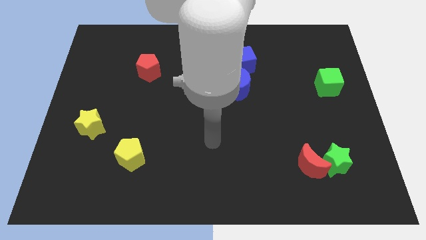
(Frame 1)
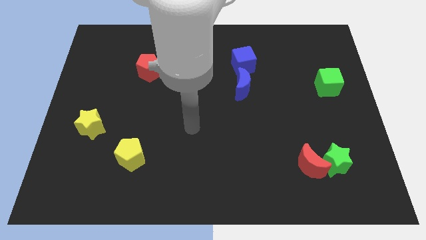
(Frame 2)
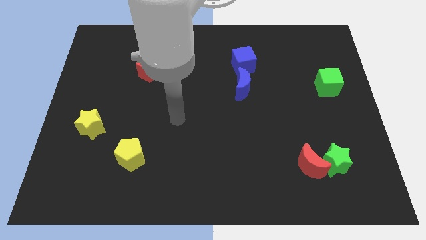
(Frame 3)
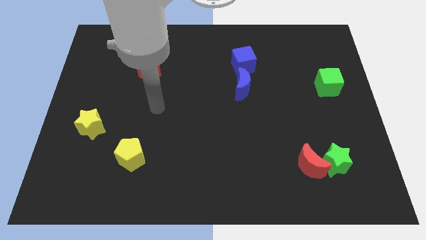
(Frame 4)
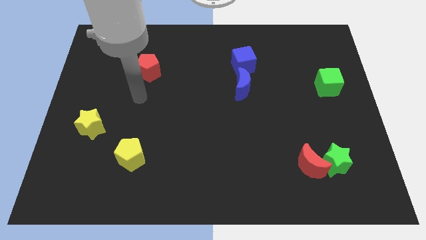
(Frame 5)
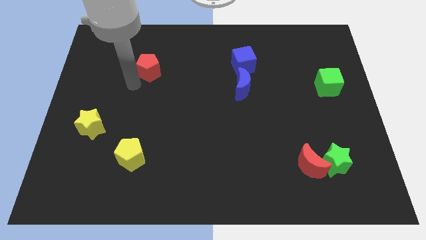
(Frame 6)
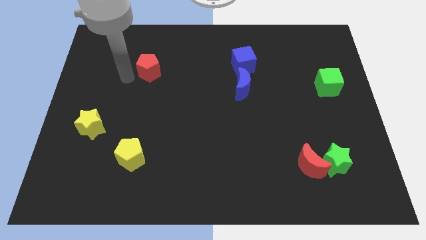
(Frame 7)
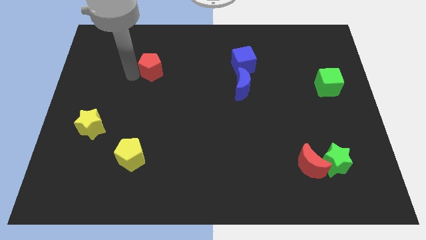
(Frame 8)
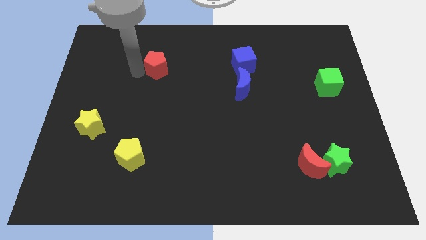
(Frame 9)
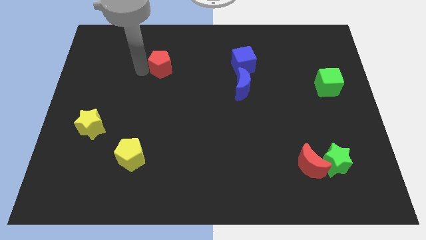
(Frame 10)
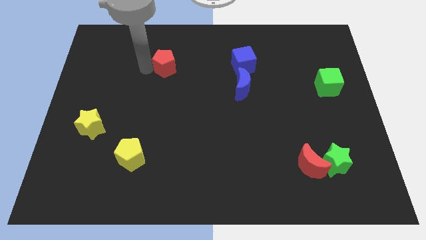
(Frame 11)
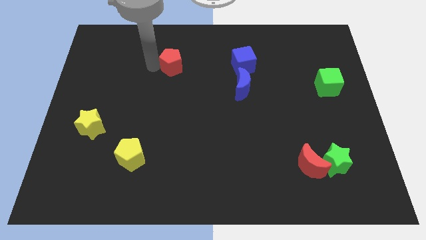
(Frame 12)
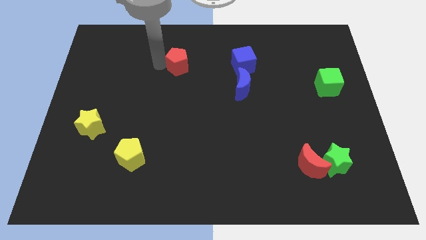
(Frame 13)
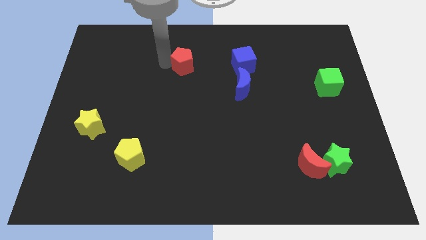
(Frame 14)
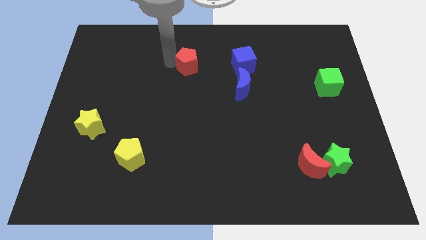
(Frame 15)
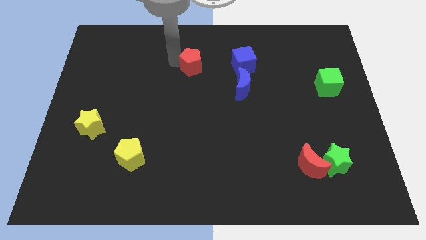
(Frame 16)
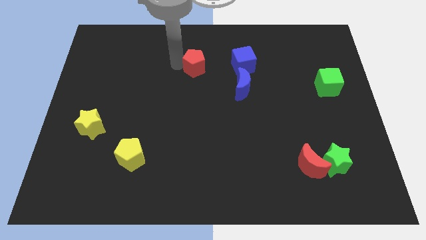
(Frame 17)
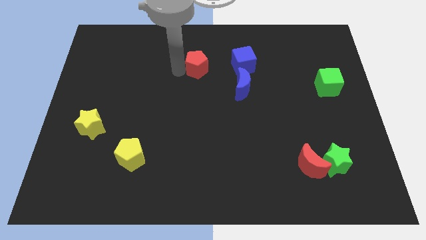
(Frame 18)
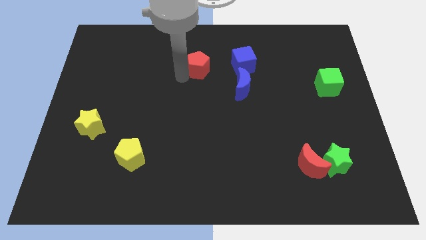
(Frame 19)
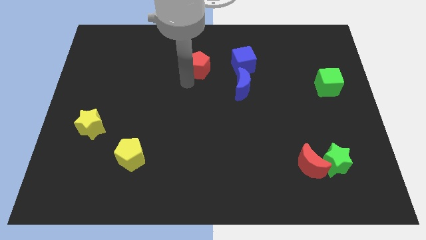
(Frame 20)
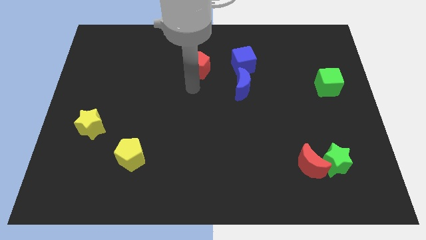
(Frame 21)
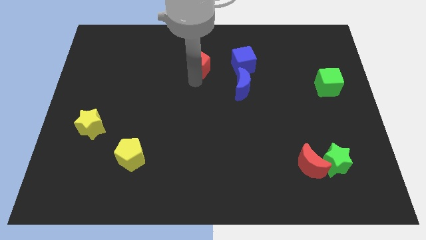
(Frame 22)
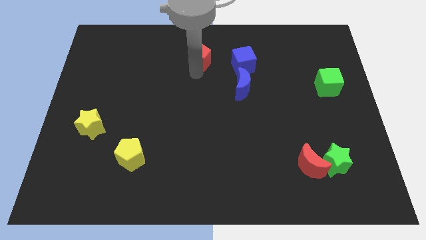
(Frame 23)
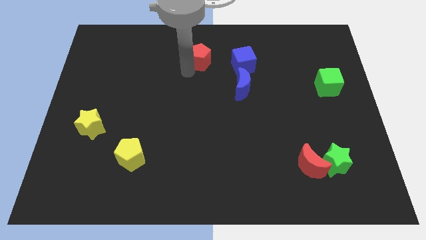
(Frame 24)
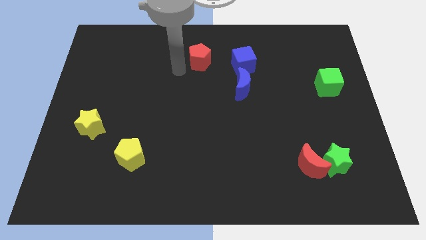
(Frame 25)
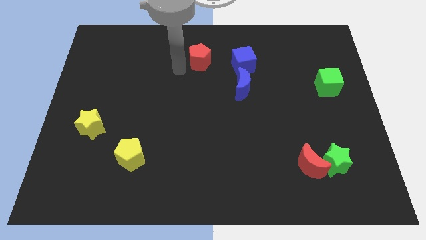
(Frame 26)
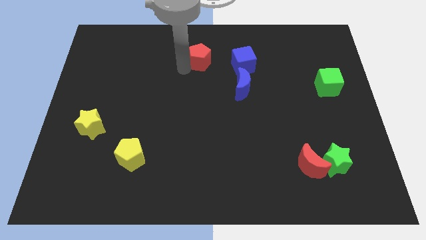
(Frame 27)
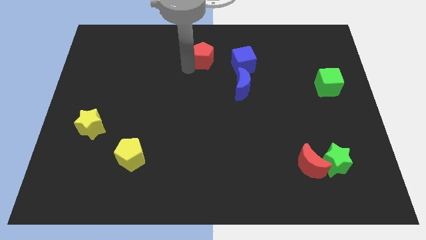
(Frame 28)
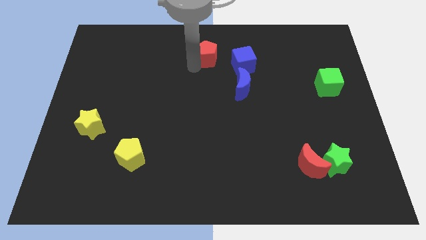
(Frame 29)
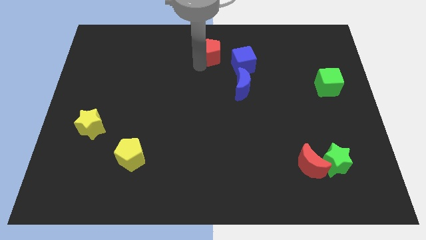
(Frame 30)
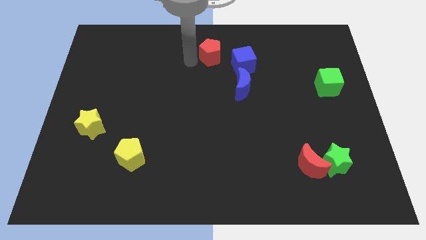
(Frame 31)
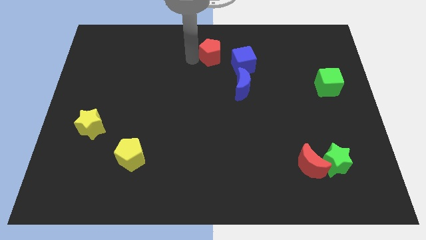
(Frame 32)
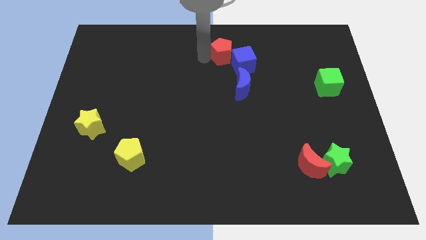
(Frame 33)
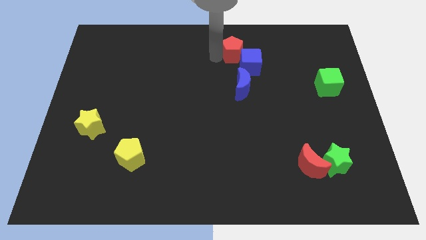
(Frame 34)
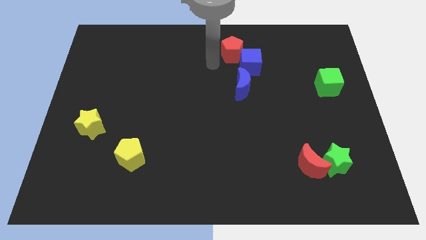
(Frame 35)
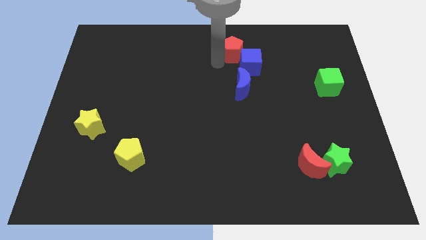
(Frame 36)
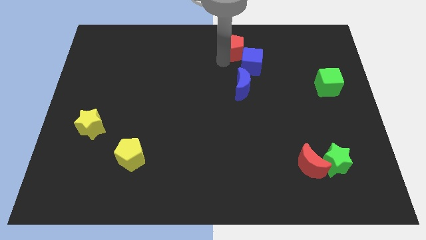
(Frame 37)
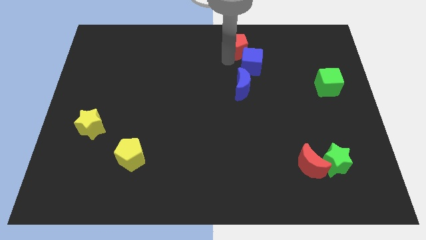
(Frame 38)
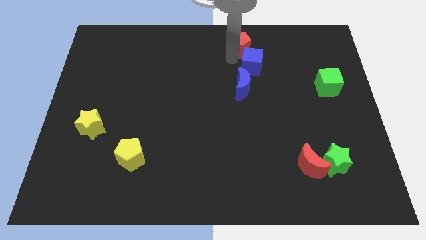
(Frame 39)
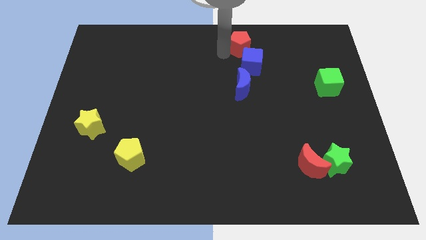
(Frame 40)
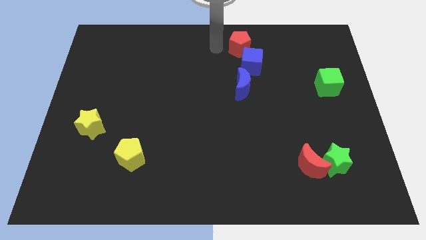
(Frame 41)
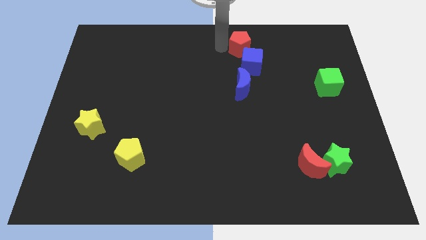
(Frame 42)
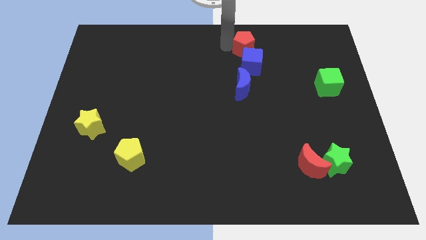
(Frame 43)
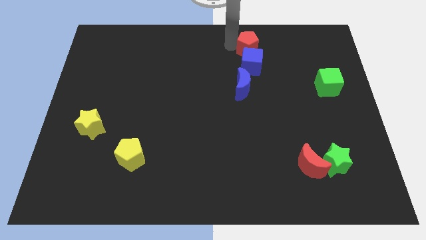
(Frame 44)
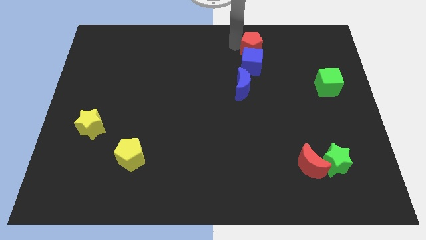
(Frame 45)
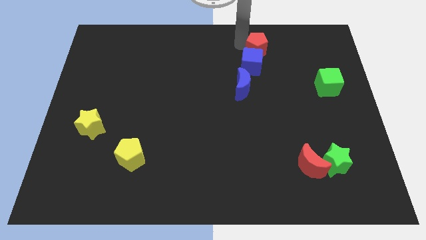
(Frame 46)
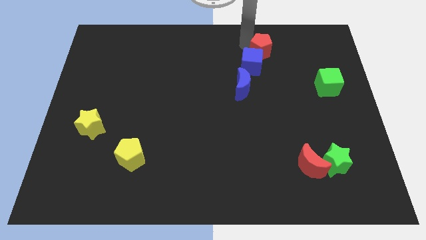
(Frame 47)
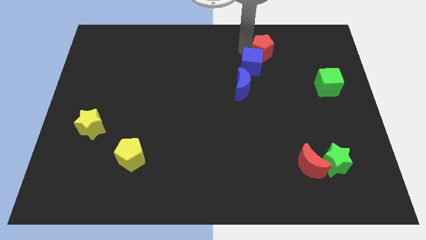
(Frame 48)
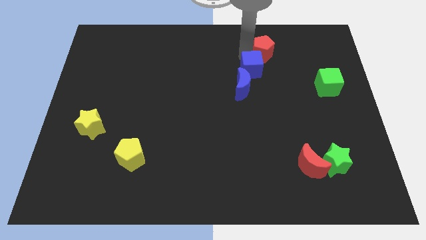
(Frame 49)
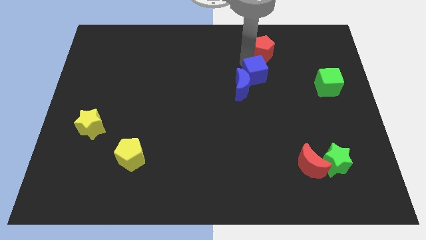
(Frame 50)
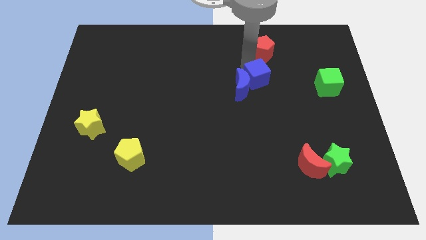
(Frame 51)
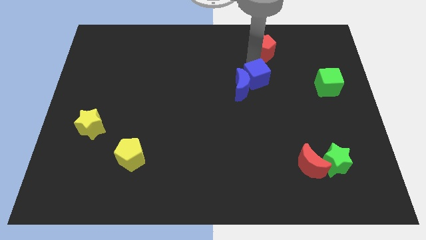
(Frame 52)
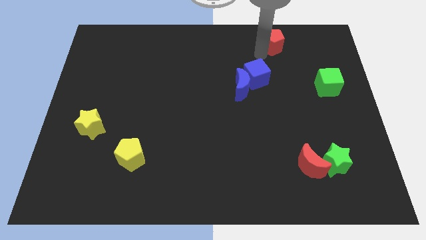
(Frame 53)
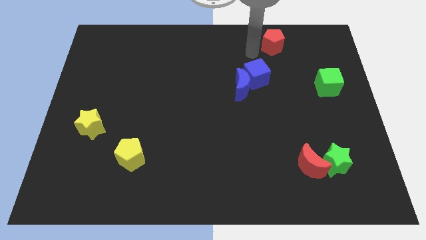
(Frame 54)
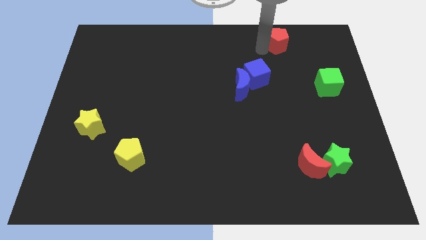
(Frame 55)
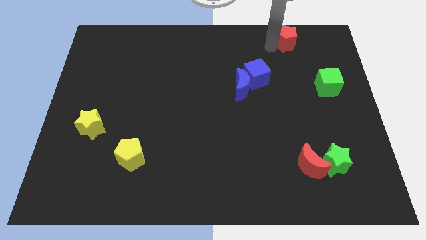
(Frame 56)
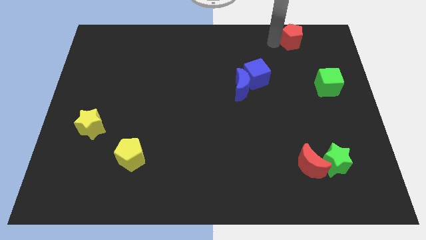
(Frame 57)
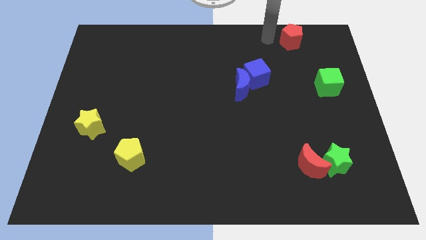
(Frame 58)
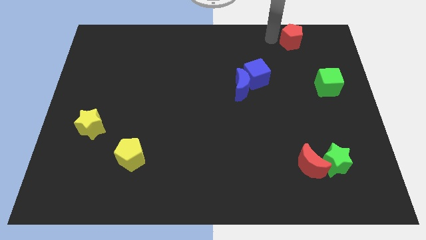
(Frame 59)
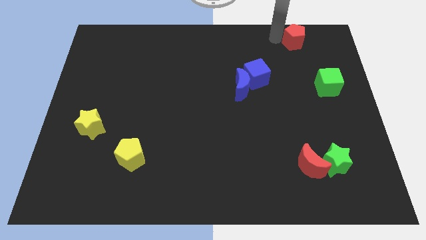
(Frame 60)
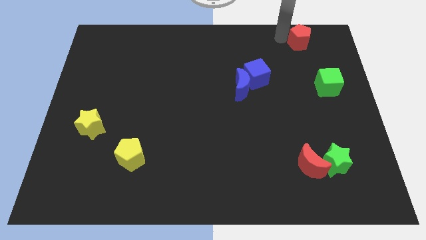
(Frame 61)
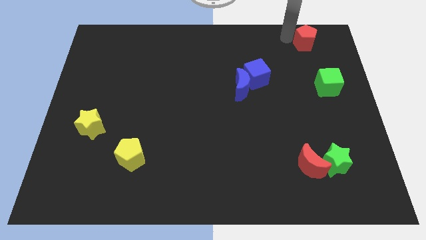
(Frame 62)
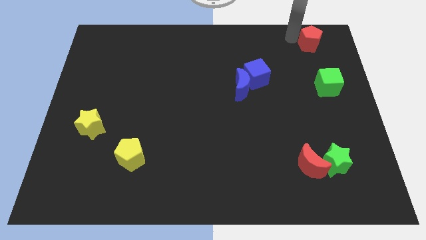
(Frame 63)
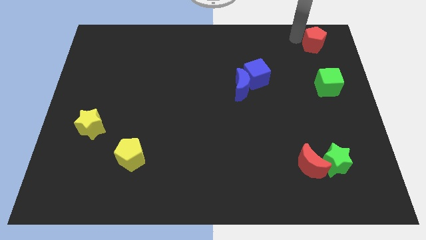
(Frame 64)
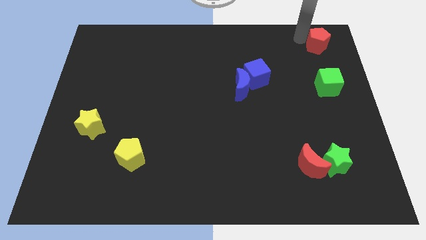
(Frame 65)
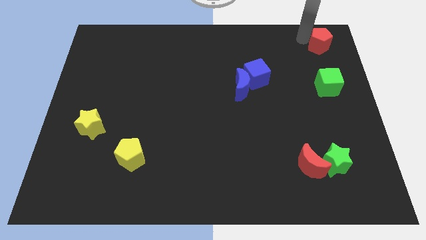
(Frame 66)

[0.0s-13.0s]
slide the red pentagon to the top right
